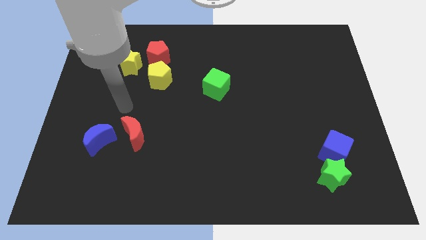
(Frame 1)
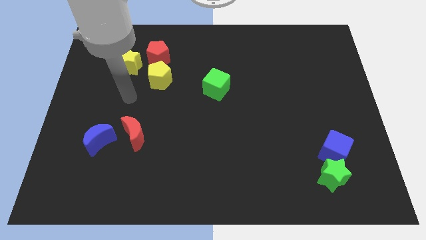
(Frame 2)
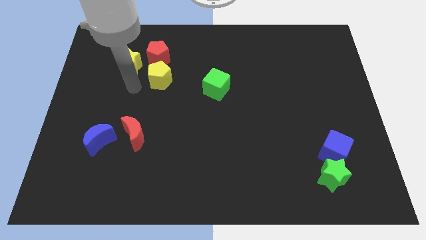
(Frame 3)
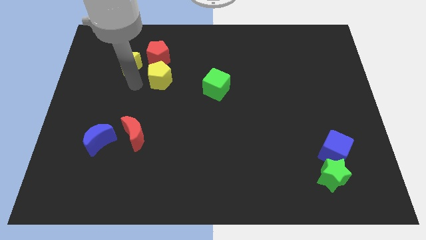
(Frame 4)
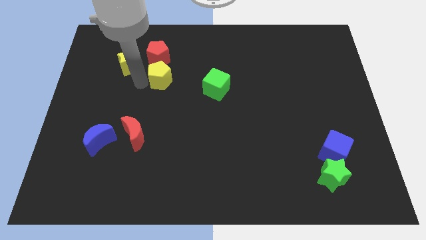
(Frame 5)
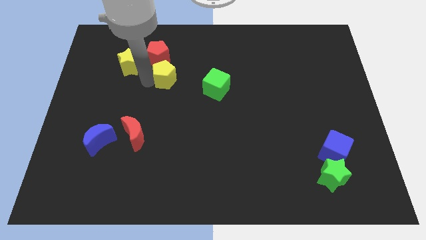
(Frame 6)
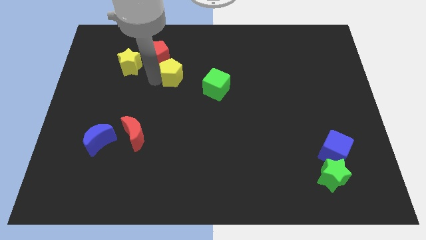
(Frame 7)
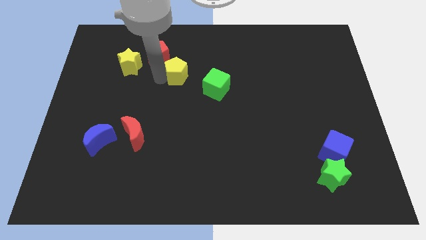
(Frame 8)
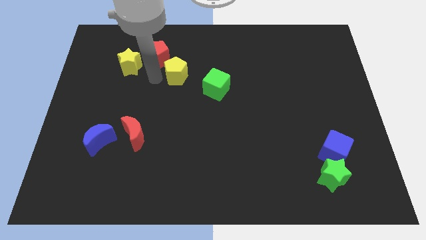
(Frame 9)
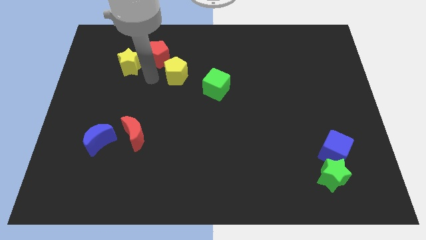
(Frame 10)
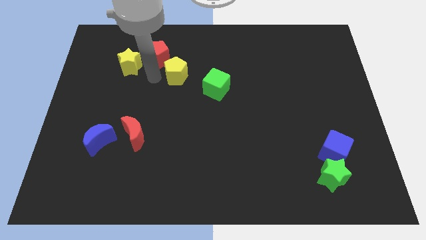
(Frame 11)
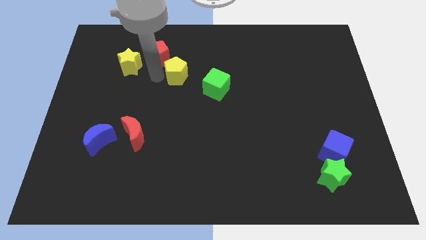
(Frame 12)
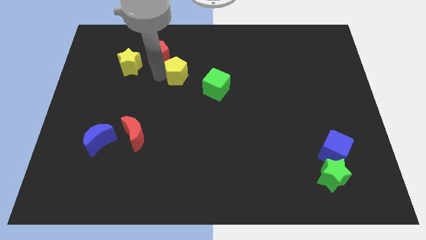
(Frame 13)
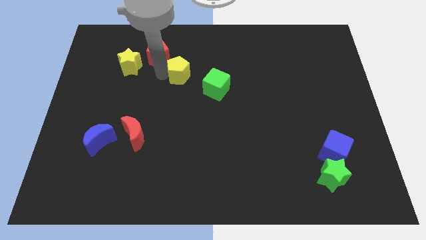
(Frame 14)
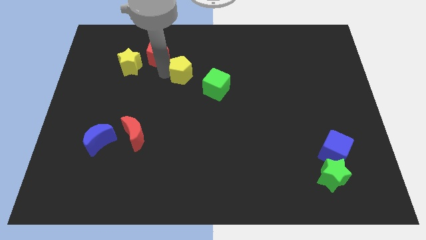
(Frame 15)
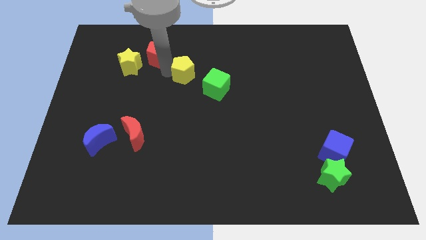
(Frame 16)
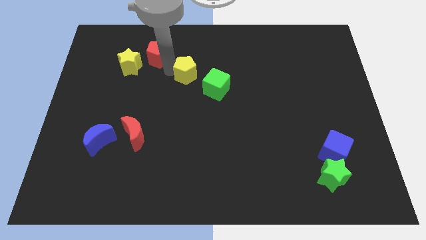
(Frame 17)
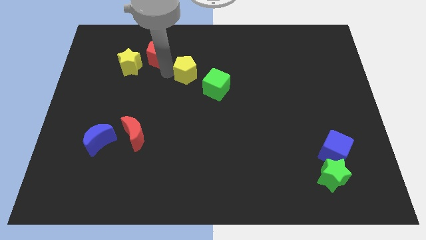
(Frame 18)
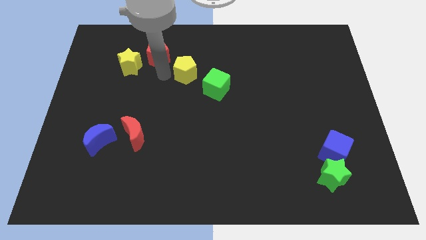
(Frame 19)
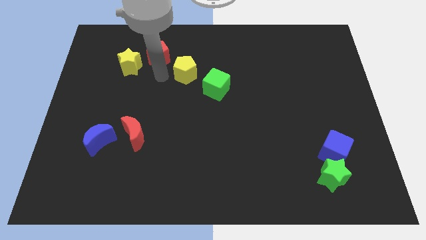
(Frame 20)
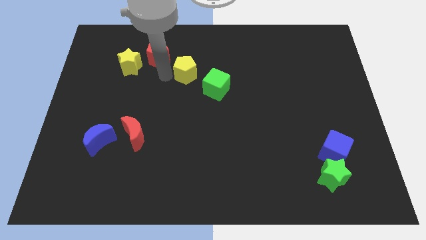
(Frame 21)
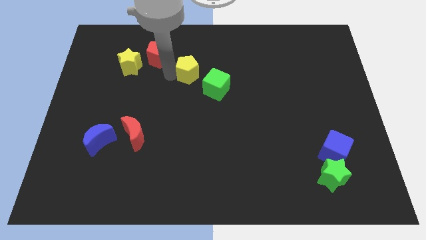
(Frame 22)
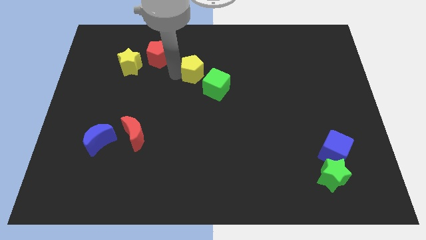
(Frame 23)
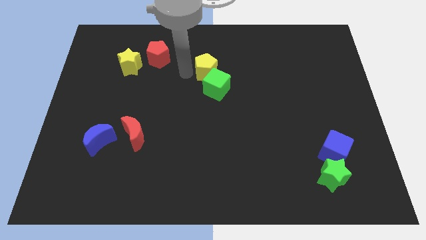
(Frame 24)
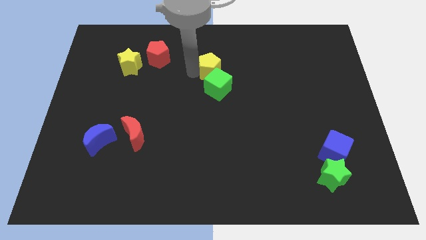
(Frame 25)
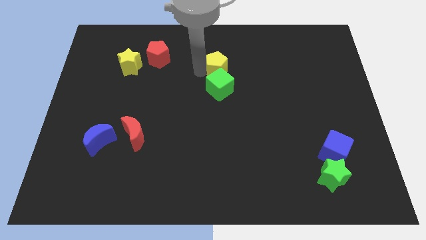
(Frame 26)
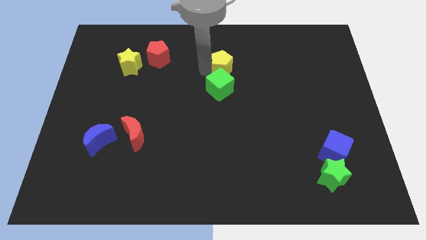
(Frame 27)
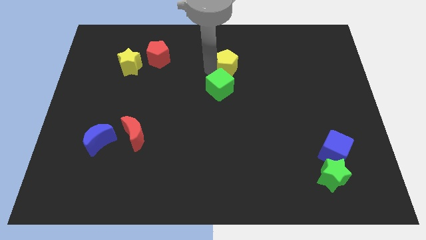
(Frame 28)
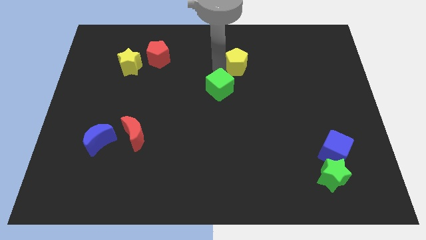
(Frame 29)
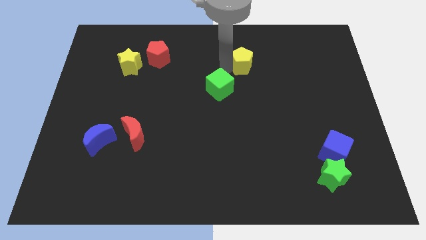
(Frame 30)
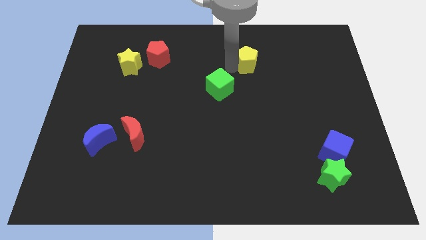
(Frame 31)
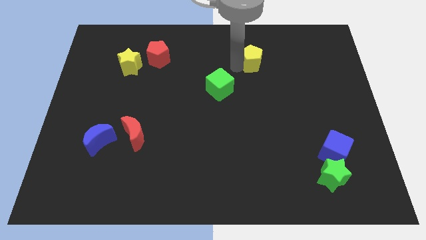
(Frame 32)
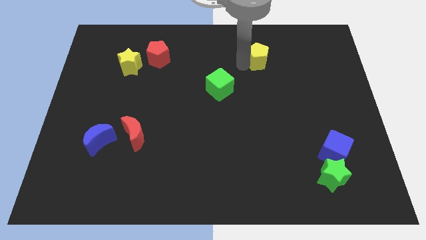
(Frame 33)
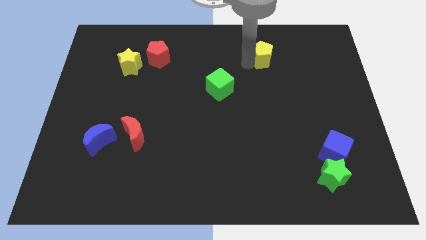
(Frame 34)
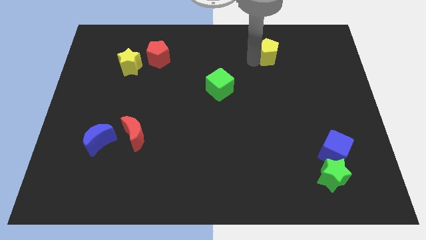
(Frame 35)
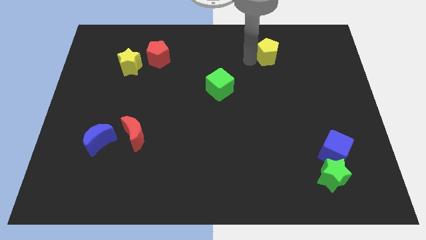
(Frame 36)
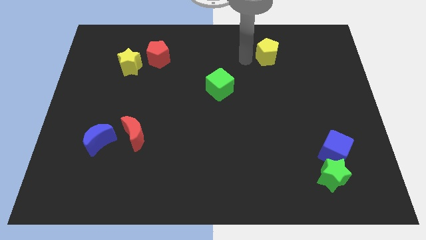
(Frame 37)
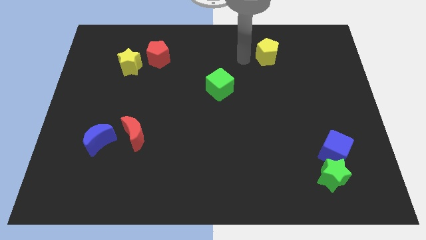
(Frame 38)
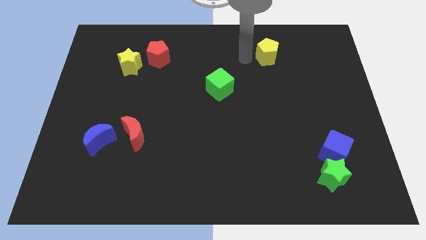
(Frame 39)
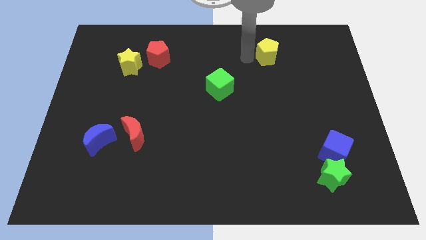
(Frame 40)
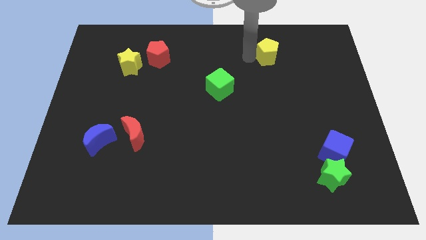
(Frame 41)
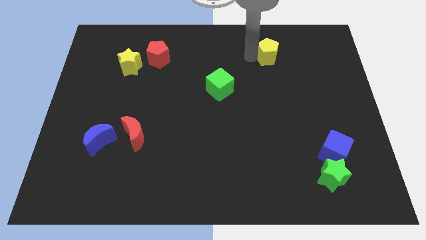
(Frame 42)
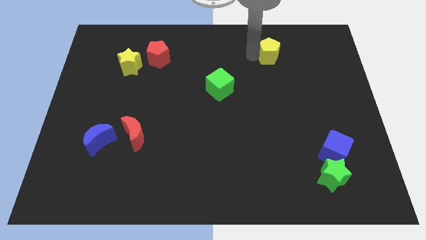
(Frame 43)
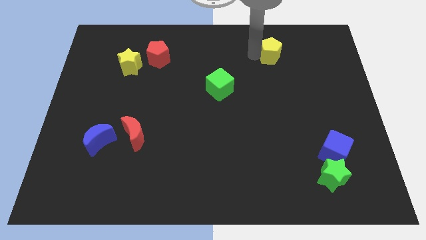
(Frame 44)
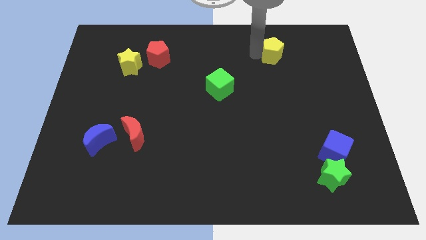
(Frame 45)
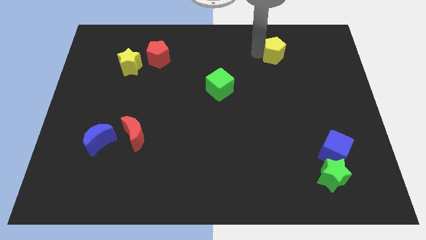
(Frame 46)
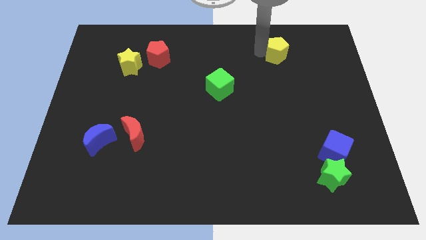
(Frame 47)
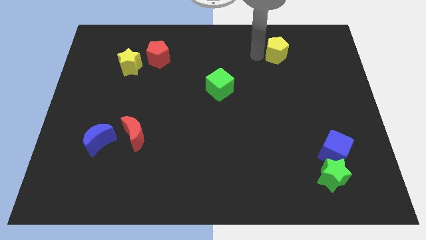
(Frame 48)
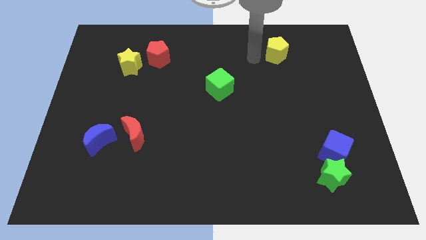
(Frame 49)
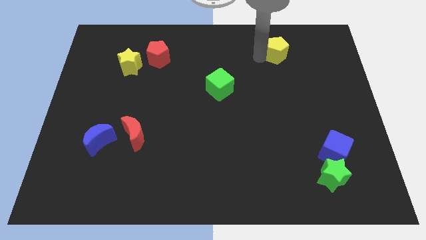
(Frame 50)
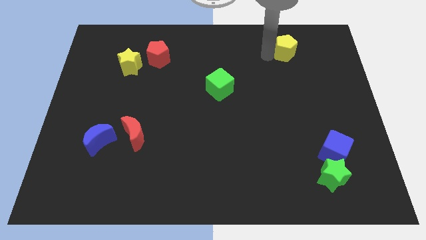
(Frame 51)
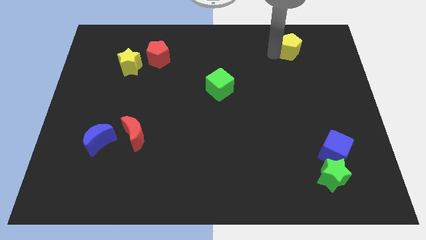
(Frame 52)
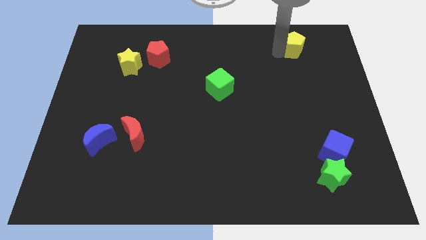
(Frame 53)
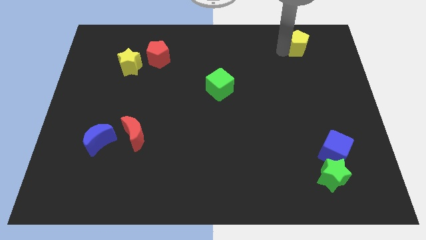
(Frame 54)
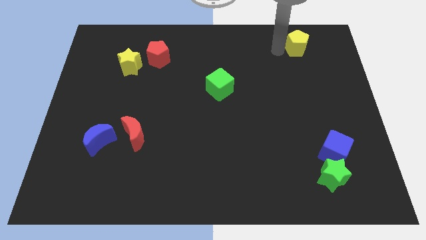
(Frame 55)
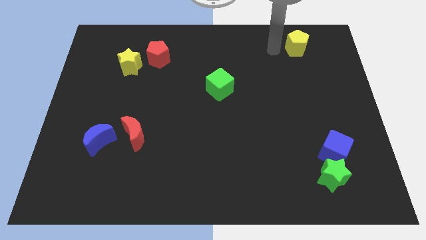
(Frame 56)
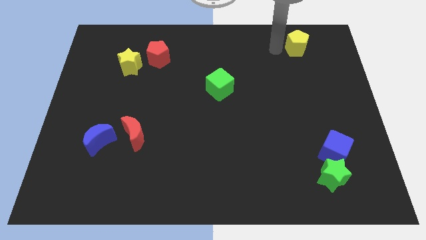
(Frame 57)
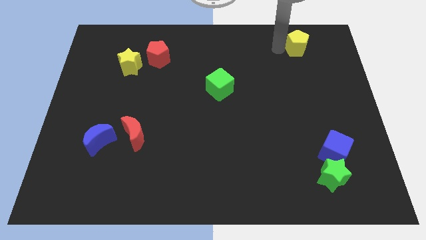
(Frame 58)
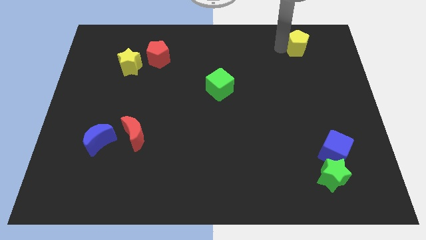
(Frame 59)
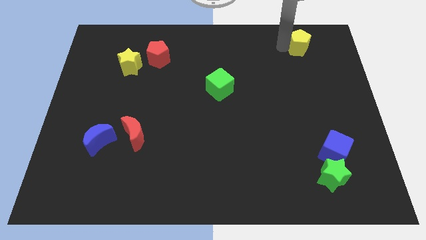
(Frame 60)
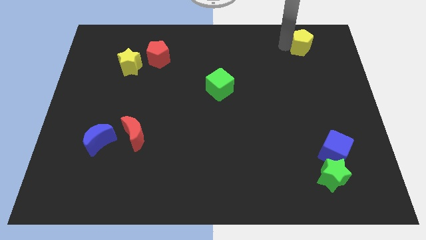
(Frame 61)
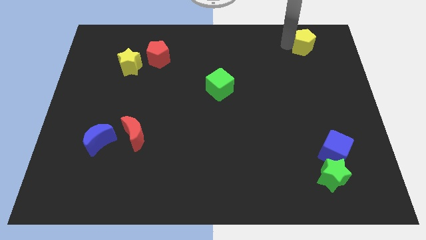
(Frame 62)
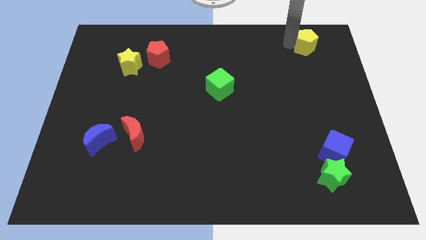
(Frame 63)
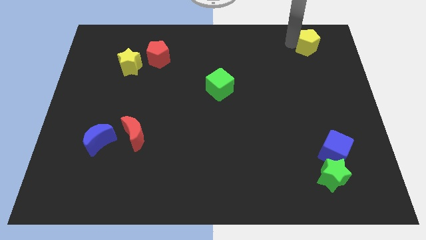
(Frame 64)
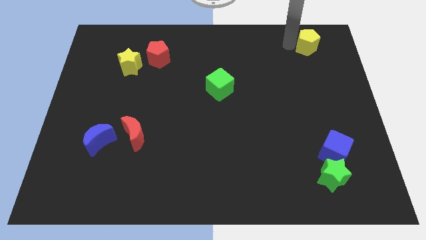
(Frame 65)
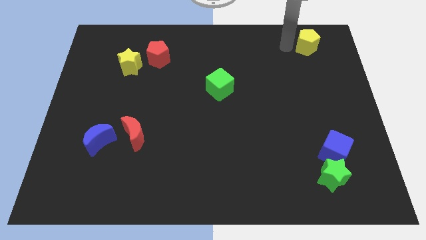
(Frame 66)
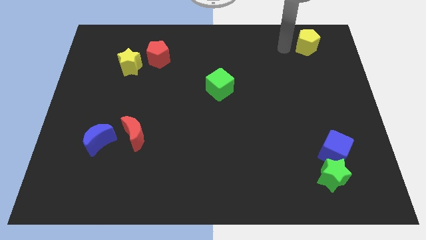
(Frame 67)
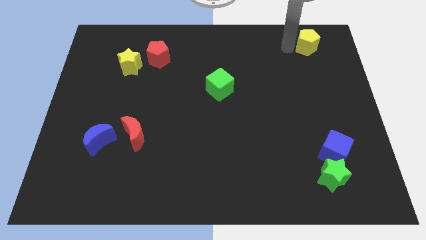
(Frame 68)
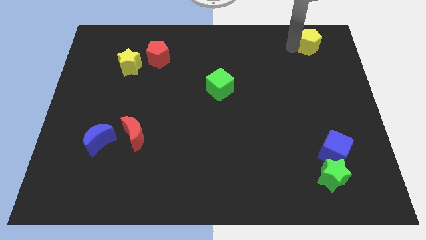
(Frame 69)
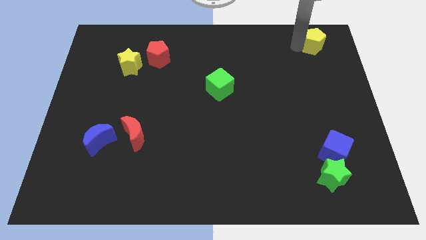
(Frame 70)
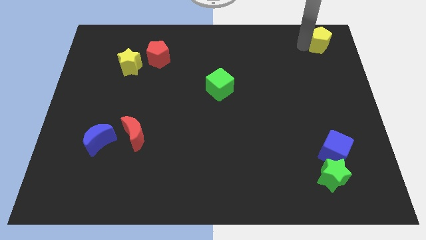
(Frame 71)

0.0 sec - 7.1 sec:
put the yellow pentagon to the top right of the board
